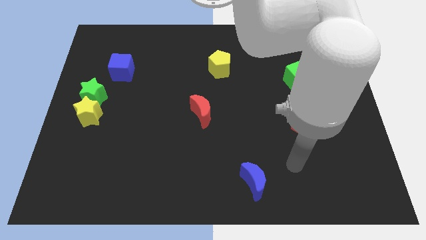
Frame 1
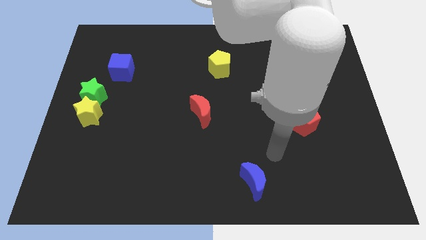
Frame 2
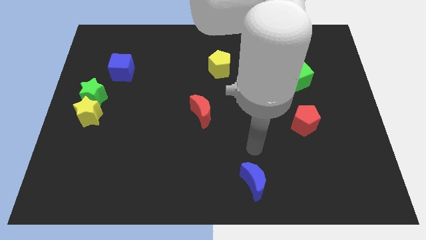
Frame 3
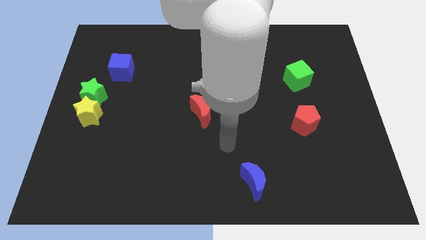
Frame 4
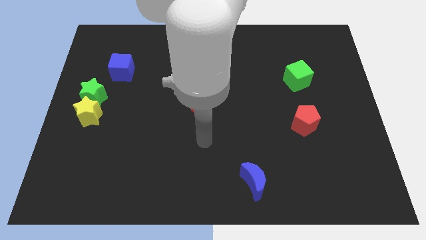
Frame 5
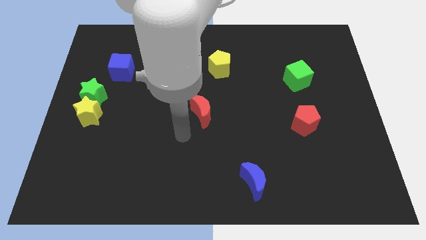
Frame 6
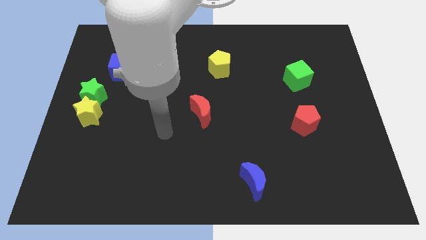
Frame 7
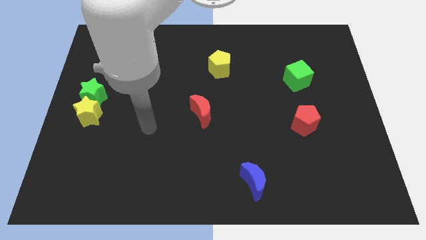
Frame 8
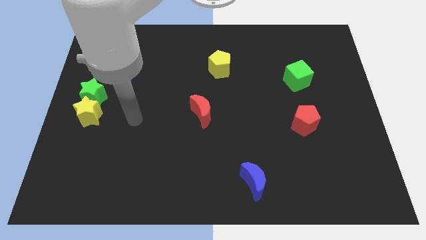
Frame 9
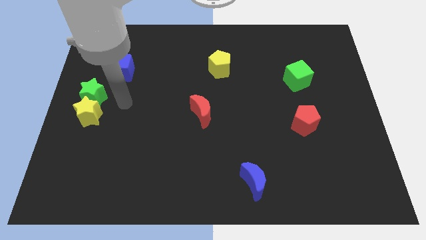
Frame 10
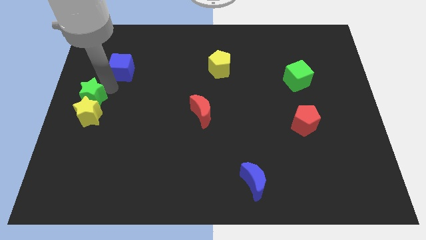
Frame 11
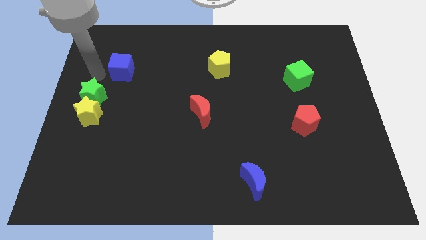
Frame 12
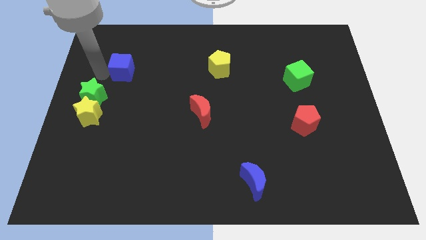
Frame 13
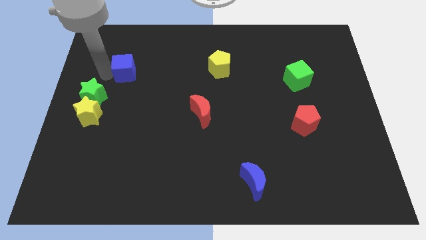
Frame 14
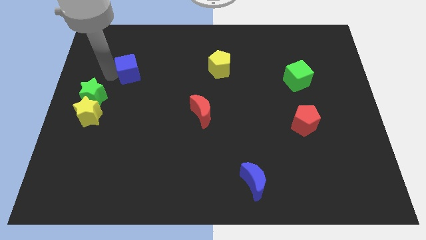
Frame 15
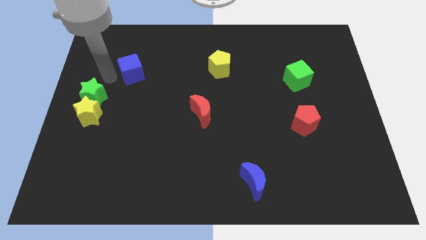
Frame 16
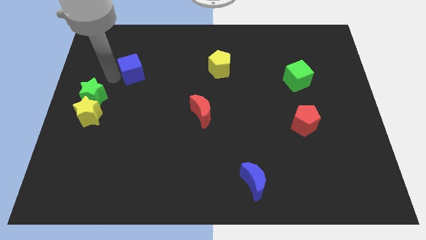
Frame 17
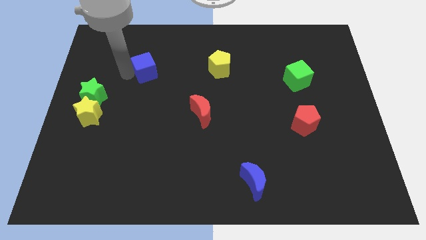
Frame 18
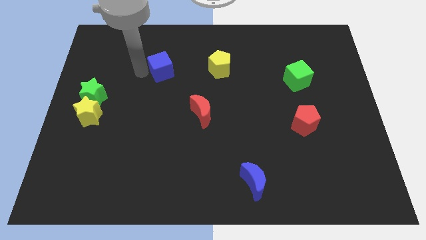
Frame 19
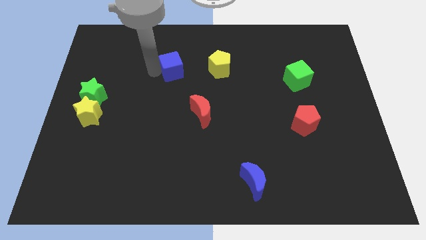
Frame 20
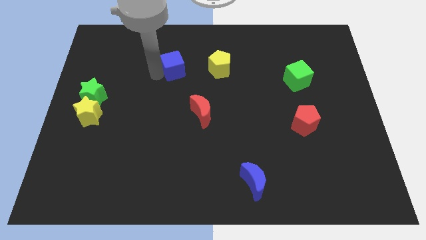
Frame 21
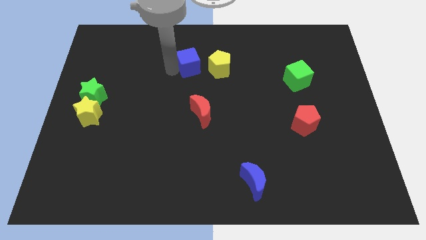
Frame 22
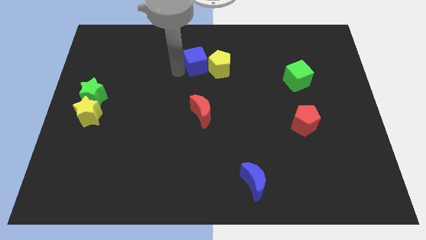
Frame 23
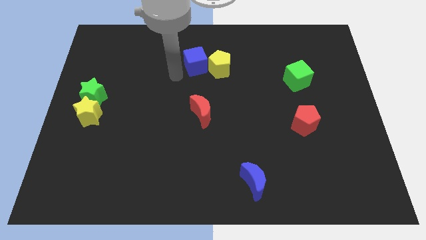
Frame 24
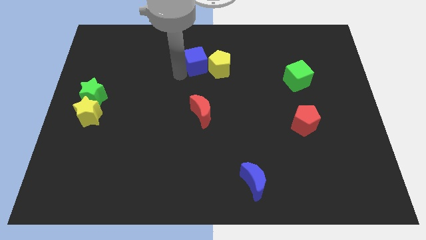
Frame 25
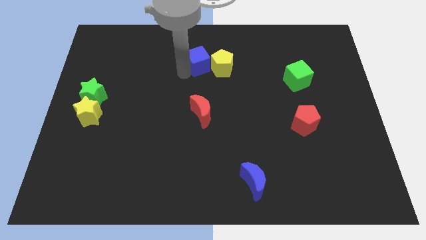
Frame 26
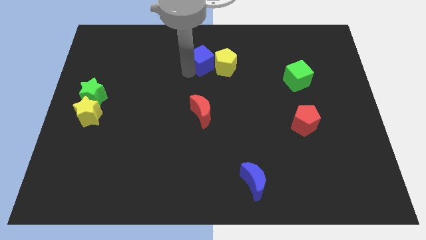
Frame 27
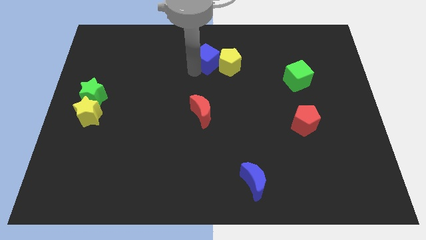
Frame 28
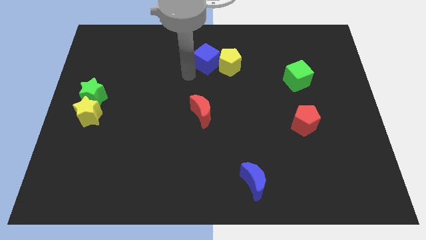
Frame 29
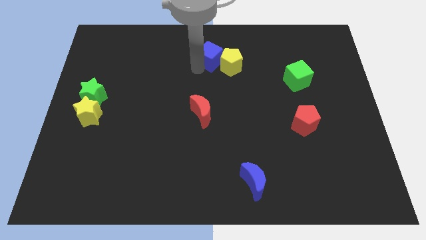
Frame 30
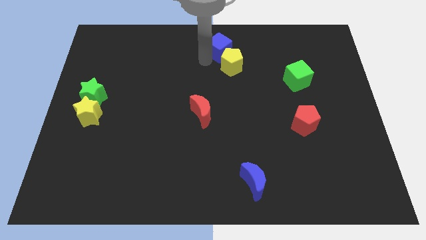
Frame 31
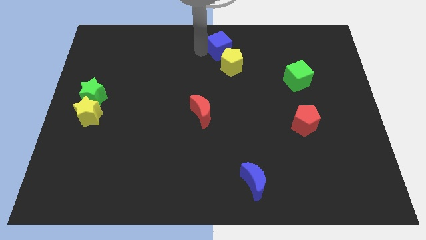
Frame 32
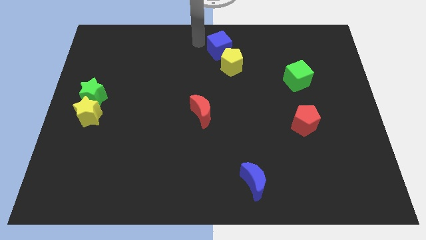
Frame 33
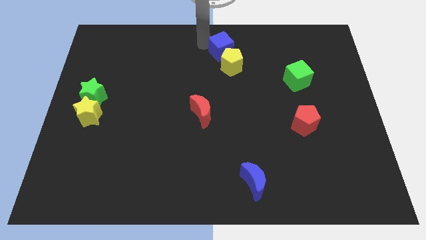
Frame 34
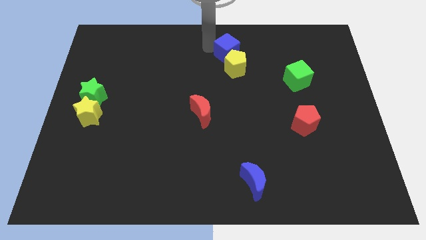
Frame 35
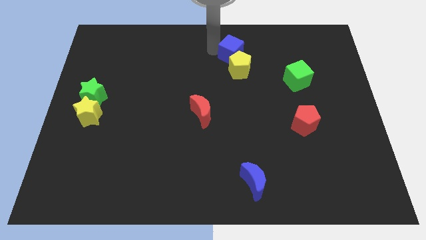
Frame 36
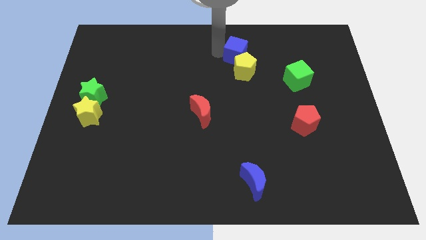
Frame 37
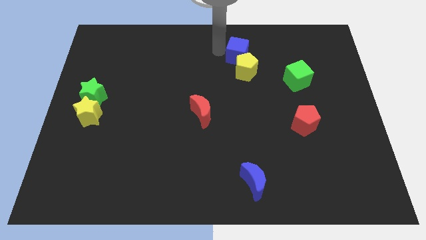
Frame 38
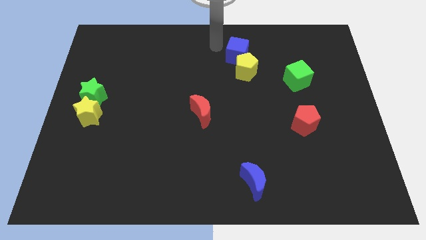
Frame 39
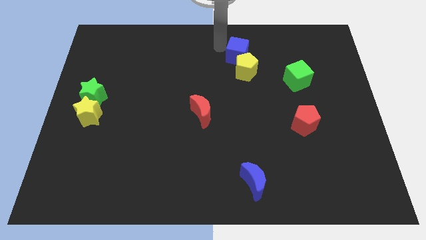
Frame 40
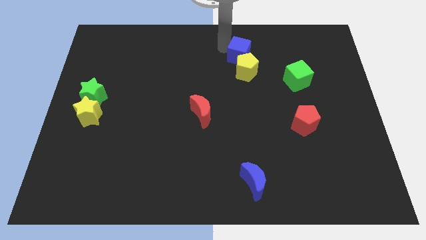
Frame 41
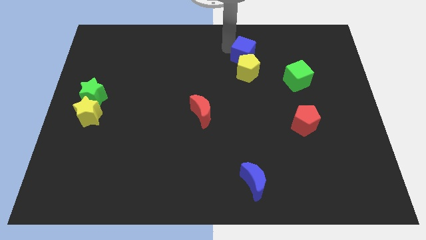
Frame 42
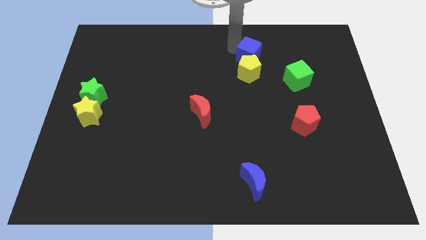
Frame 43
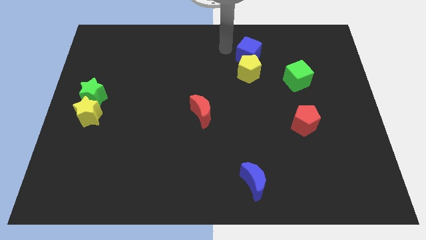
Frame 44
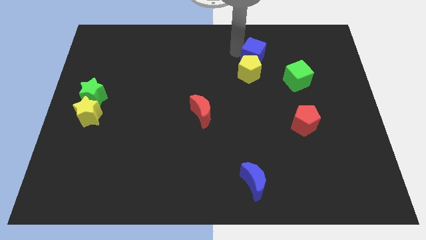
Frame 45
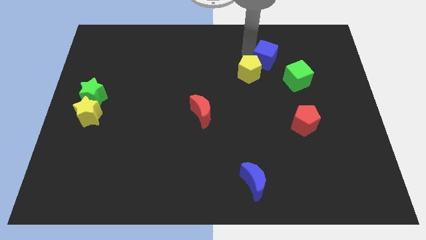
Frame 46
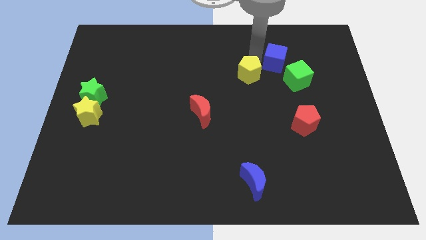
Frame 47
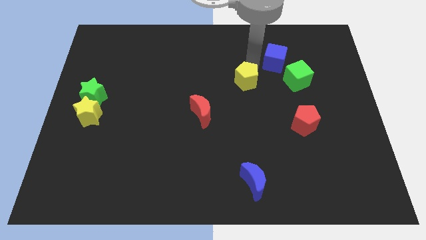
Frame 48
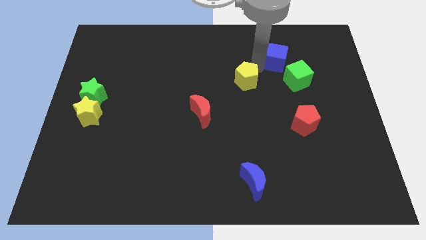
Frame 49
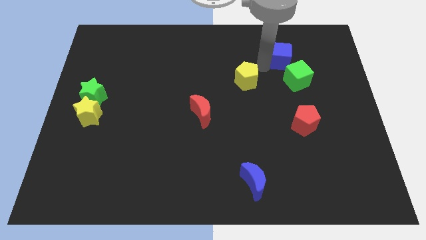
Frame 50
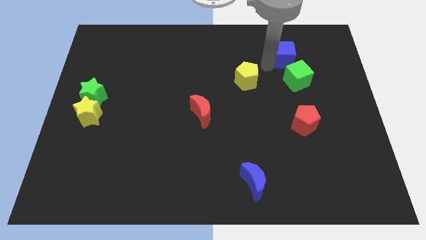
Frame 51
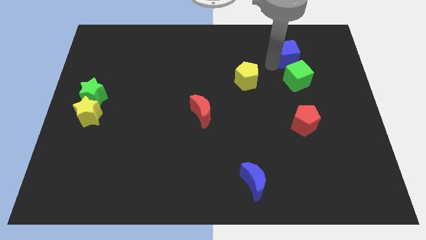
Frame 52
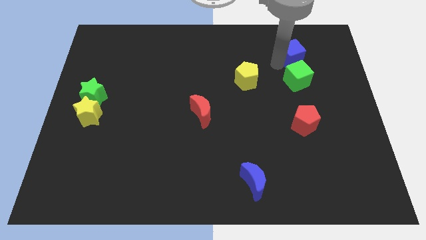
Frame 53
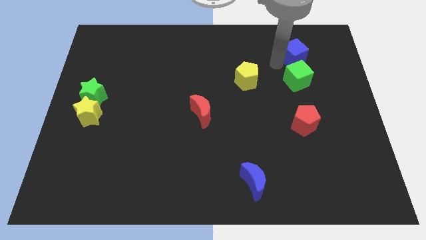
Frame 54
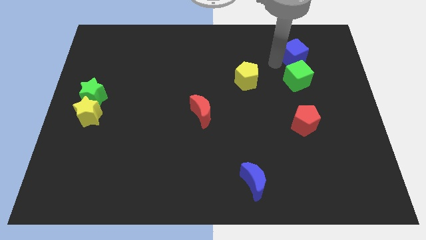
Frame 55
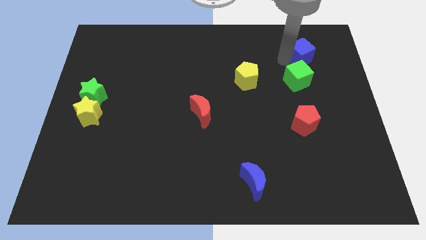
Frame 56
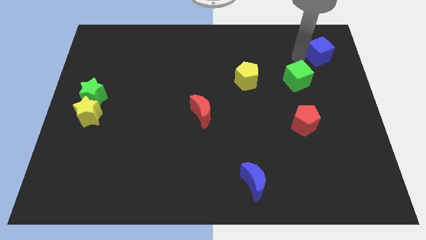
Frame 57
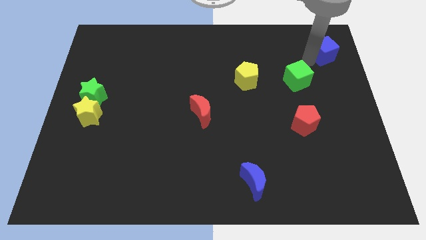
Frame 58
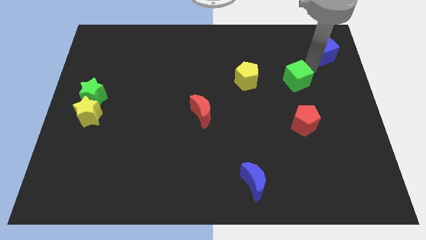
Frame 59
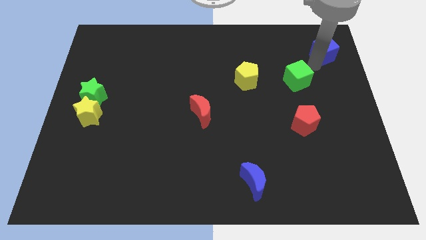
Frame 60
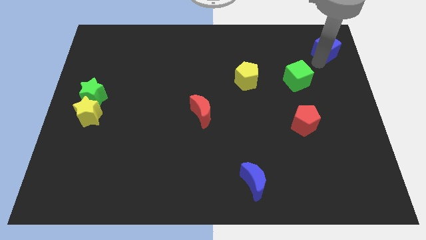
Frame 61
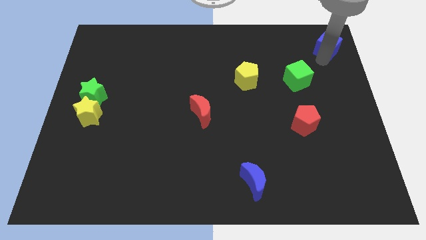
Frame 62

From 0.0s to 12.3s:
move the blue cube to the upper right corner

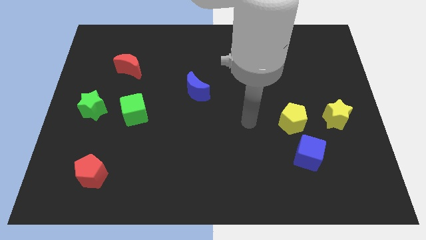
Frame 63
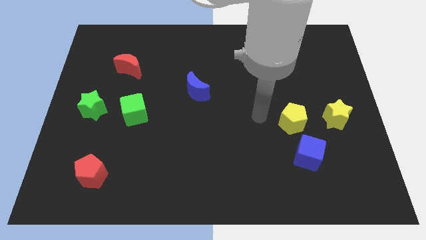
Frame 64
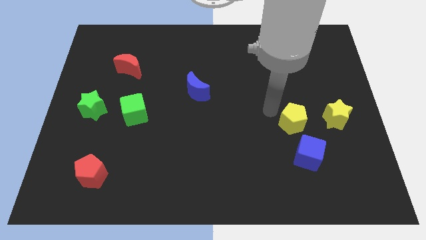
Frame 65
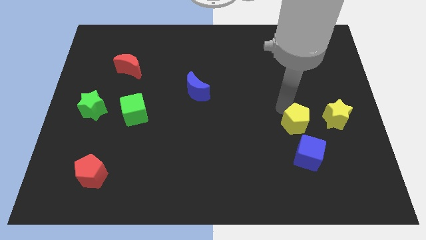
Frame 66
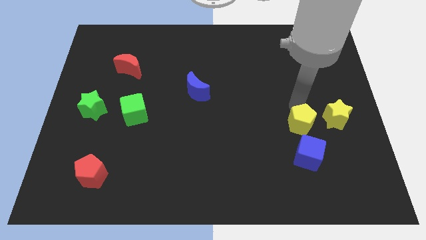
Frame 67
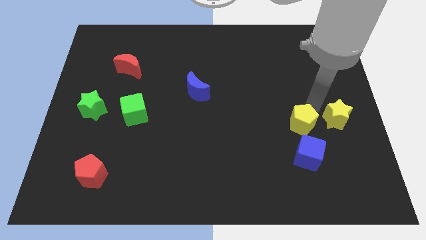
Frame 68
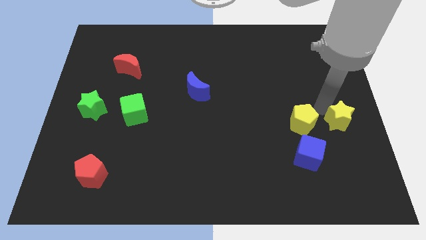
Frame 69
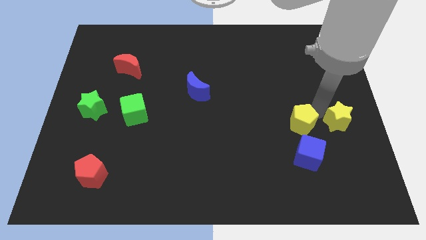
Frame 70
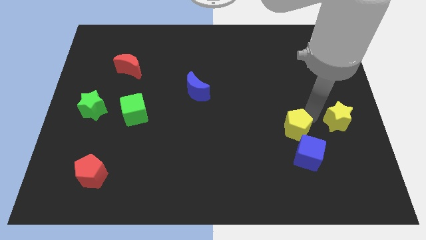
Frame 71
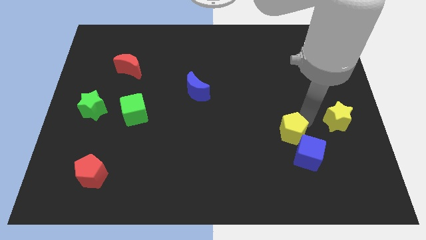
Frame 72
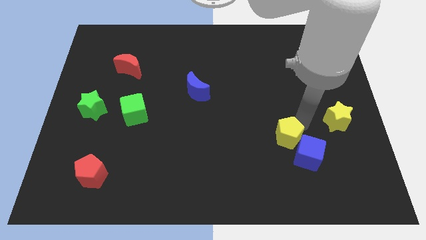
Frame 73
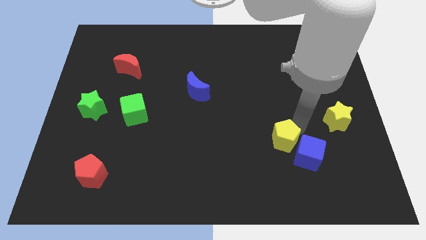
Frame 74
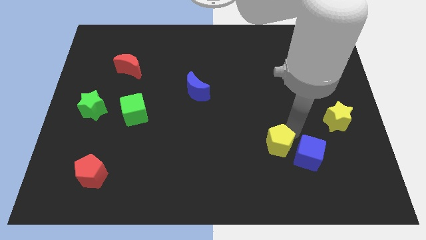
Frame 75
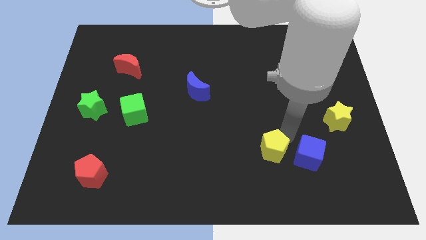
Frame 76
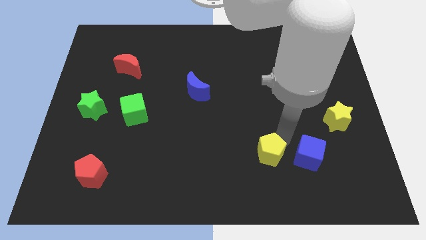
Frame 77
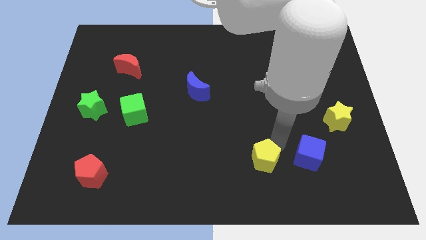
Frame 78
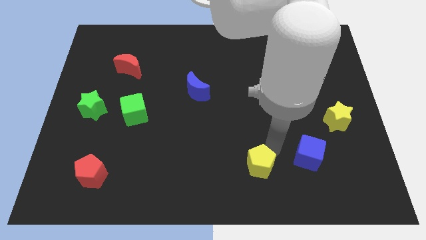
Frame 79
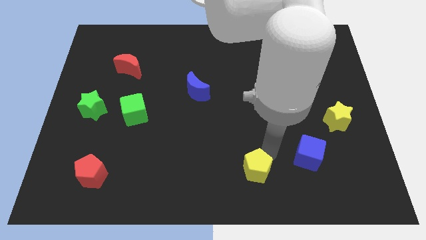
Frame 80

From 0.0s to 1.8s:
put the yellow pentagon to the bottom
